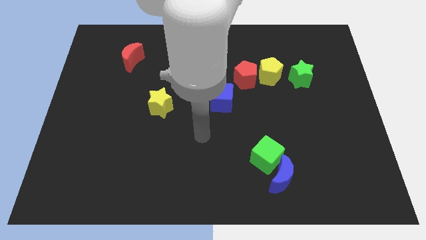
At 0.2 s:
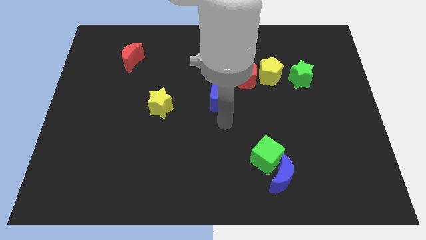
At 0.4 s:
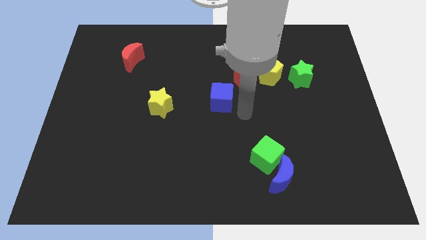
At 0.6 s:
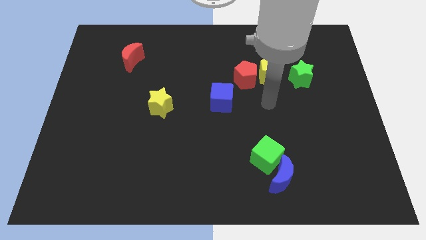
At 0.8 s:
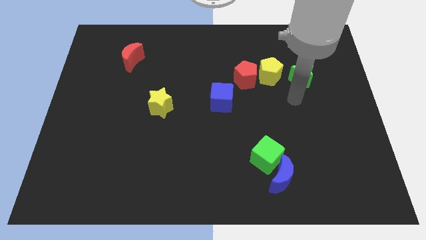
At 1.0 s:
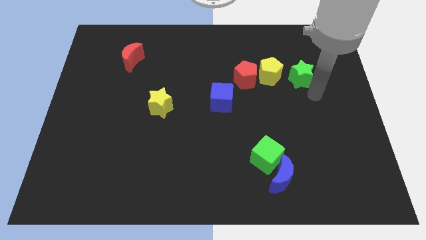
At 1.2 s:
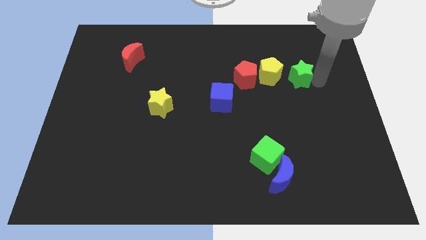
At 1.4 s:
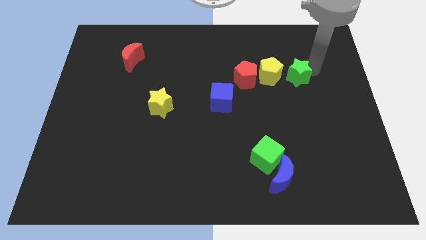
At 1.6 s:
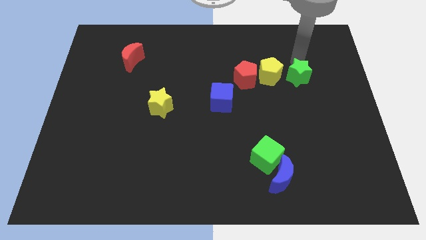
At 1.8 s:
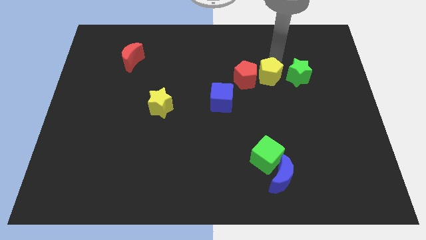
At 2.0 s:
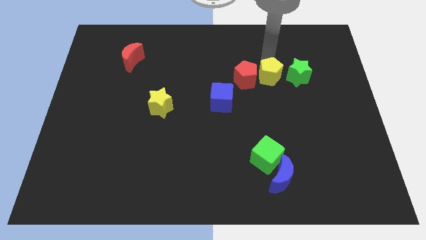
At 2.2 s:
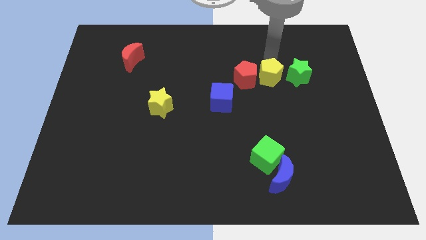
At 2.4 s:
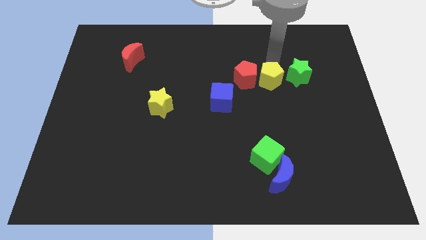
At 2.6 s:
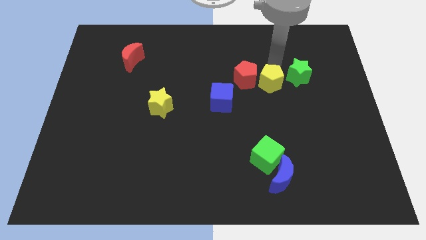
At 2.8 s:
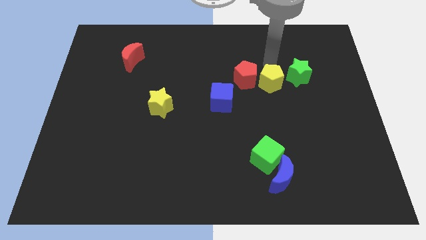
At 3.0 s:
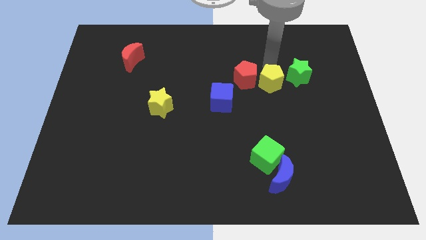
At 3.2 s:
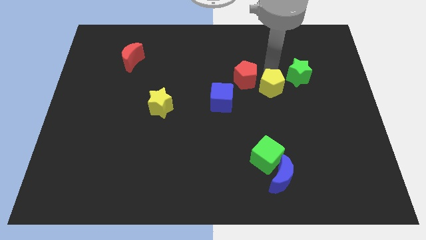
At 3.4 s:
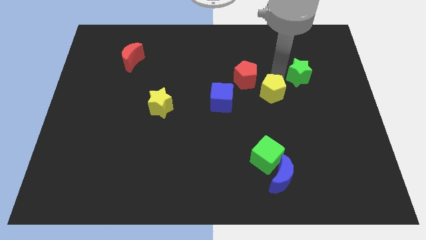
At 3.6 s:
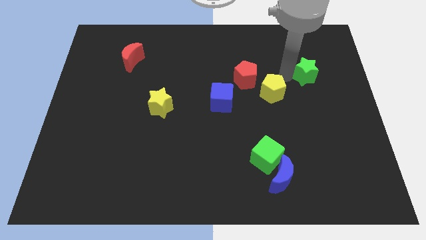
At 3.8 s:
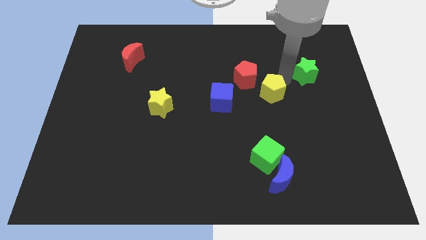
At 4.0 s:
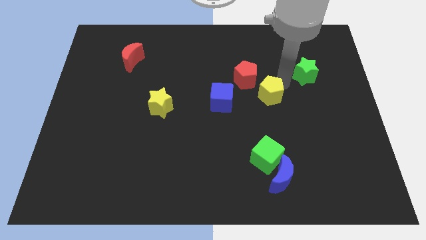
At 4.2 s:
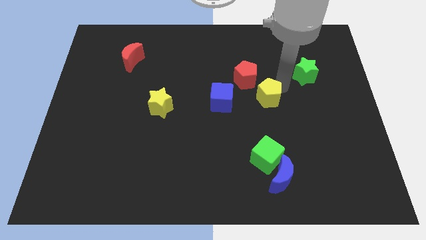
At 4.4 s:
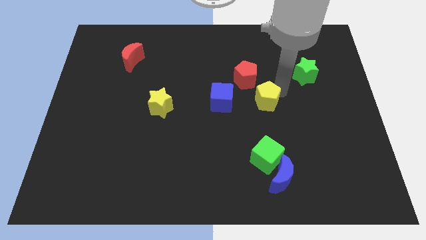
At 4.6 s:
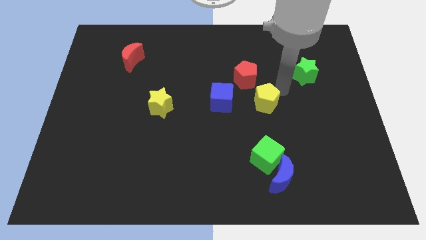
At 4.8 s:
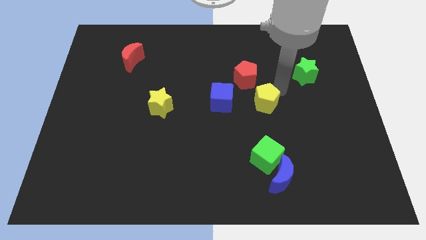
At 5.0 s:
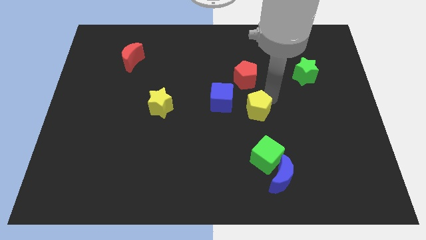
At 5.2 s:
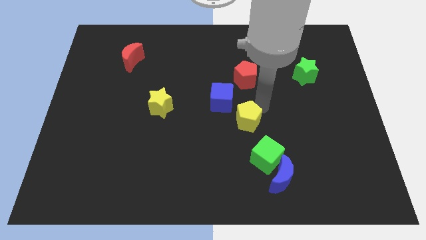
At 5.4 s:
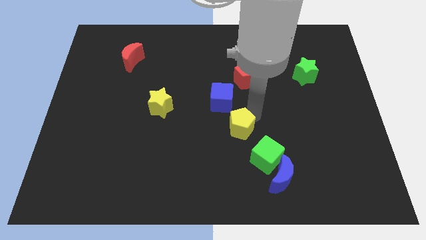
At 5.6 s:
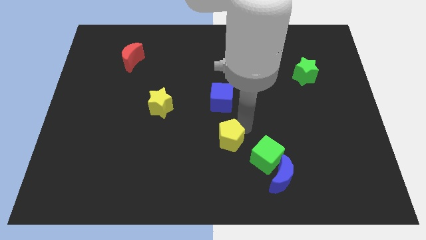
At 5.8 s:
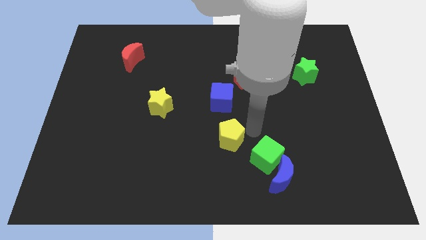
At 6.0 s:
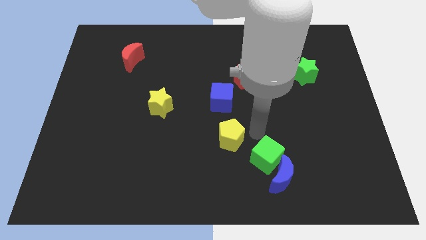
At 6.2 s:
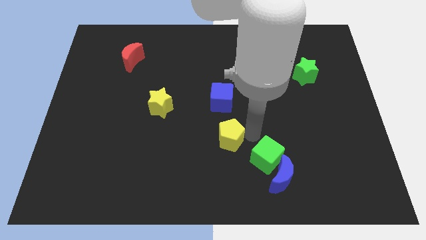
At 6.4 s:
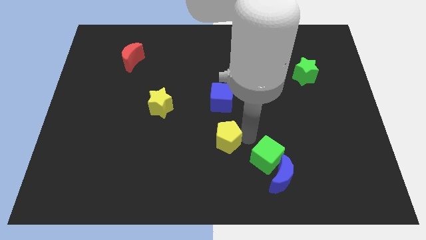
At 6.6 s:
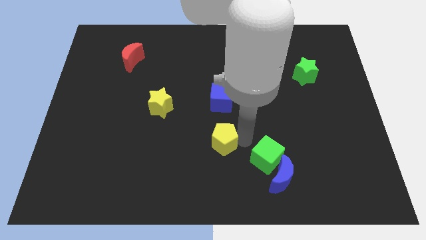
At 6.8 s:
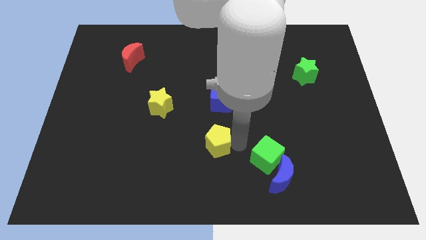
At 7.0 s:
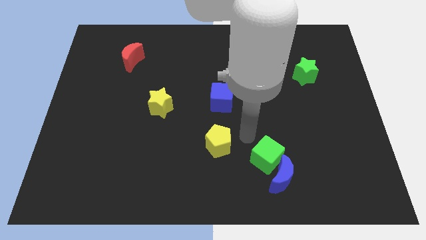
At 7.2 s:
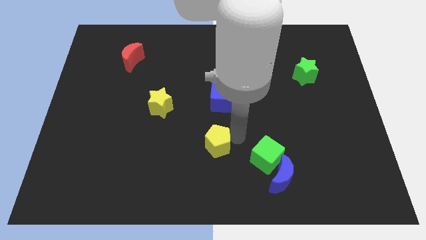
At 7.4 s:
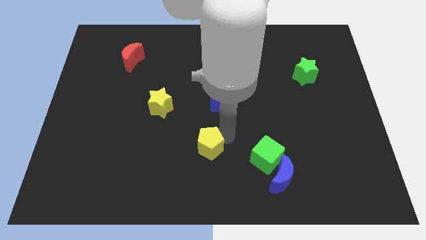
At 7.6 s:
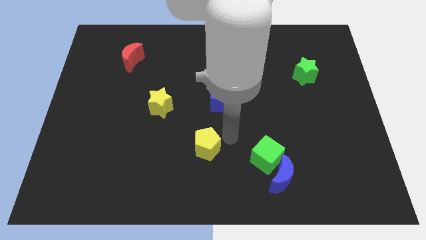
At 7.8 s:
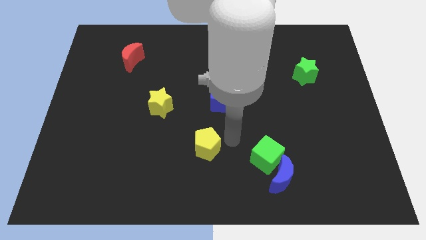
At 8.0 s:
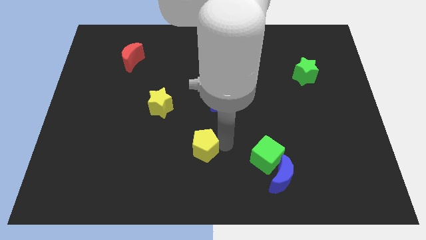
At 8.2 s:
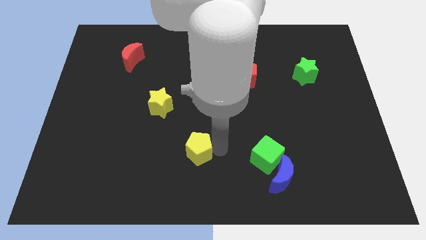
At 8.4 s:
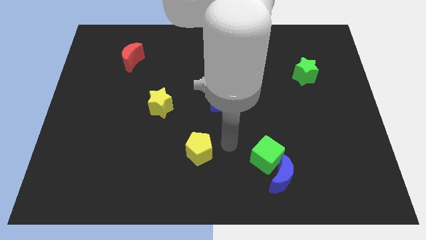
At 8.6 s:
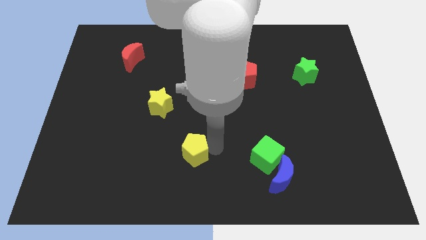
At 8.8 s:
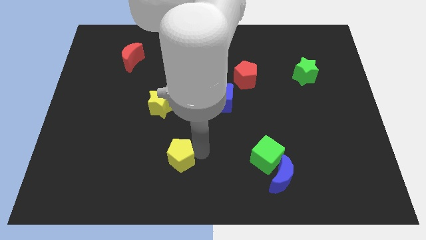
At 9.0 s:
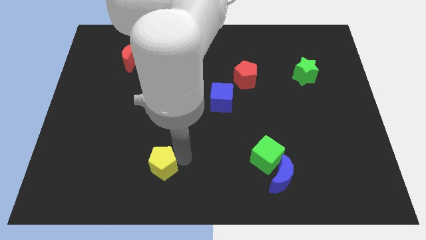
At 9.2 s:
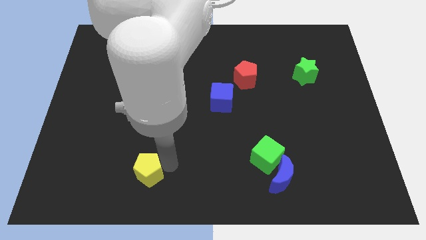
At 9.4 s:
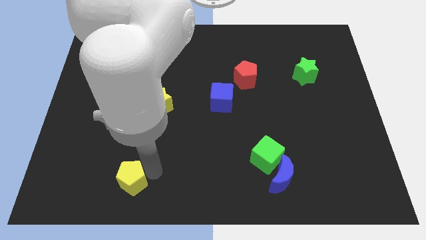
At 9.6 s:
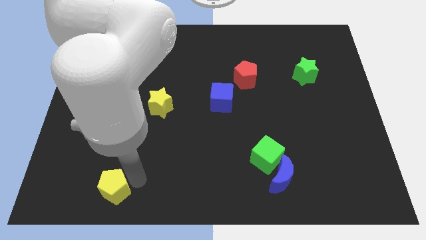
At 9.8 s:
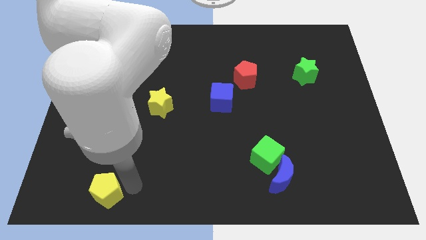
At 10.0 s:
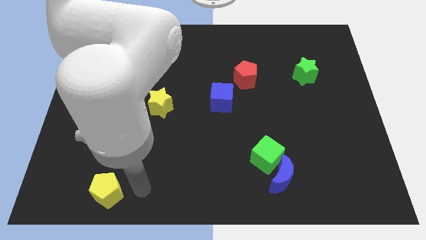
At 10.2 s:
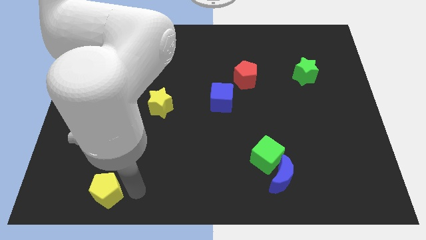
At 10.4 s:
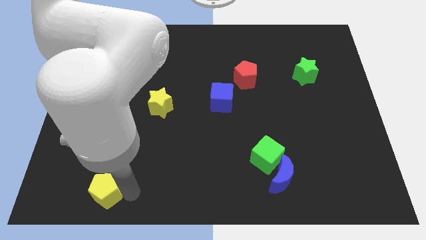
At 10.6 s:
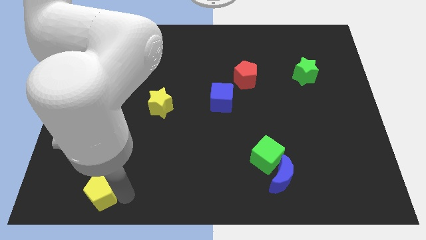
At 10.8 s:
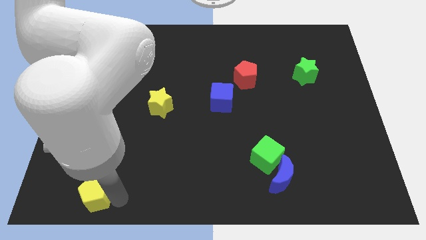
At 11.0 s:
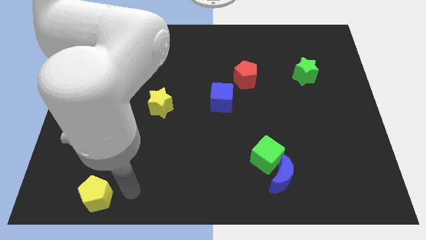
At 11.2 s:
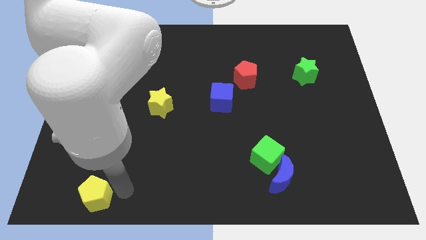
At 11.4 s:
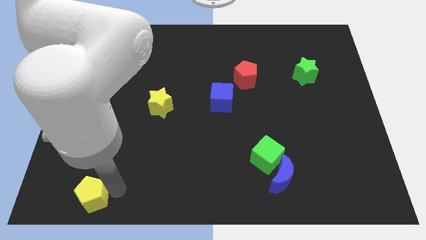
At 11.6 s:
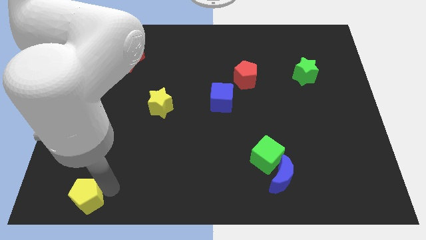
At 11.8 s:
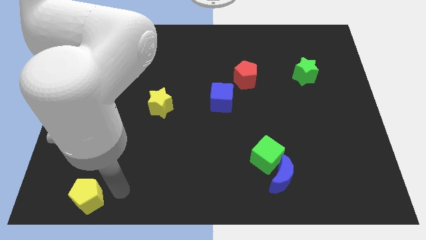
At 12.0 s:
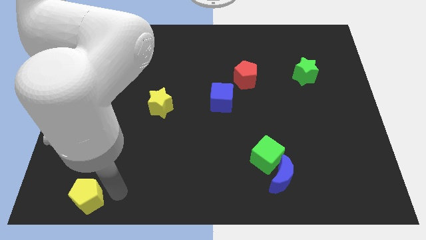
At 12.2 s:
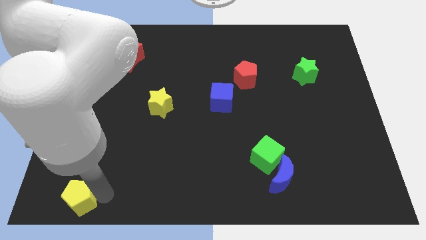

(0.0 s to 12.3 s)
slide the yellow pentagon to the bottom left of the board

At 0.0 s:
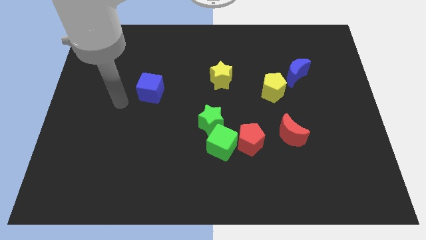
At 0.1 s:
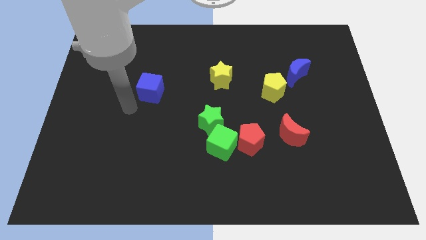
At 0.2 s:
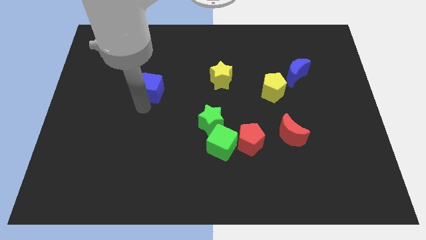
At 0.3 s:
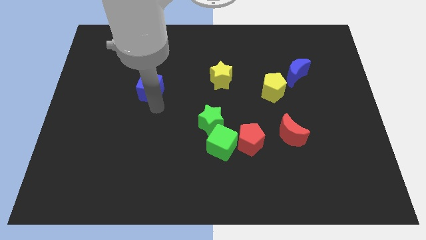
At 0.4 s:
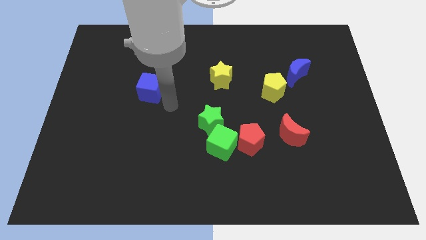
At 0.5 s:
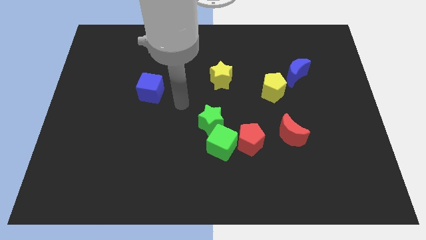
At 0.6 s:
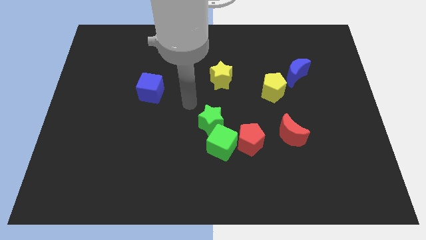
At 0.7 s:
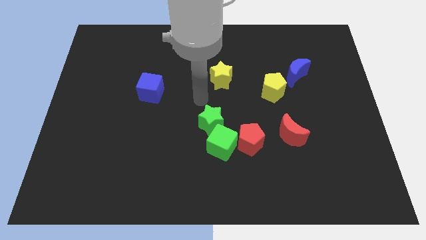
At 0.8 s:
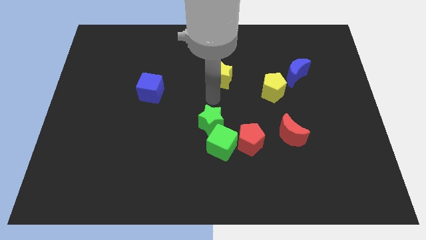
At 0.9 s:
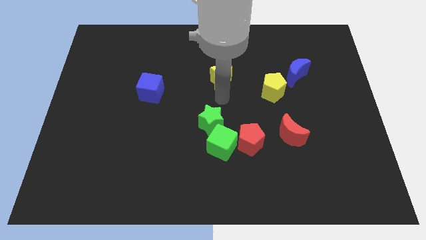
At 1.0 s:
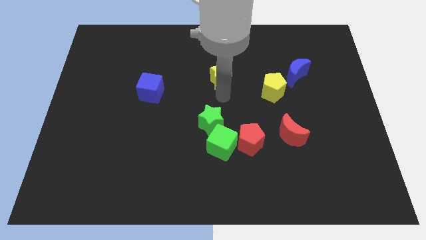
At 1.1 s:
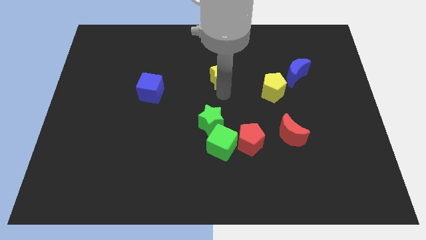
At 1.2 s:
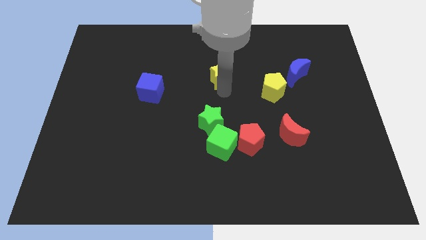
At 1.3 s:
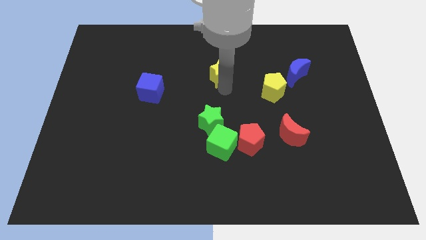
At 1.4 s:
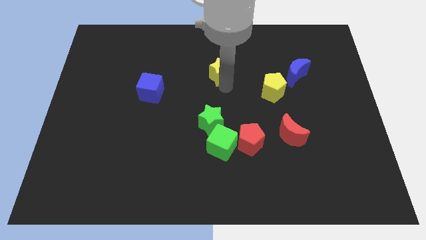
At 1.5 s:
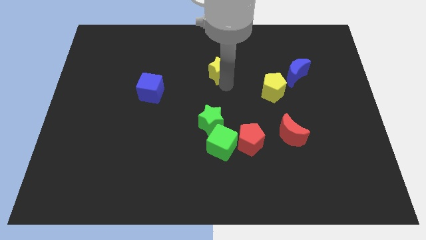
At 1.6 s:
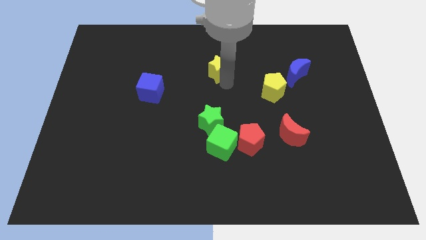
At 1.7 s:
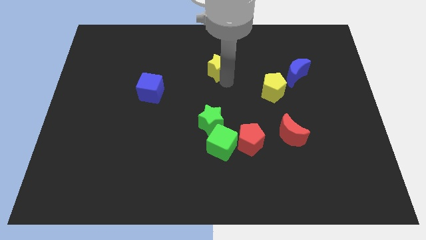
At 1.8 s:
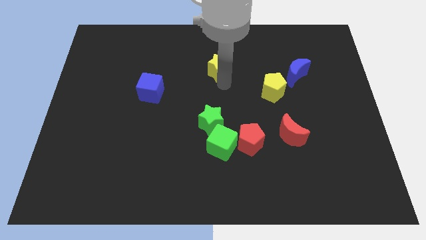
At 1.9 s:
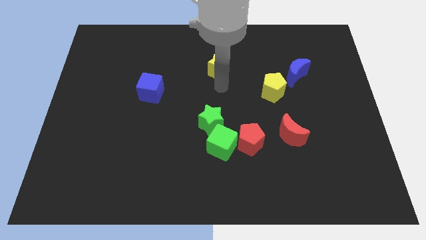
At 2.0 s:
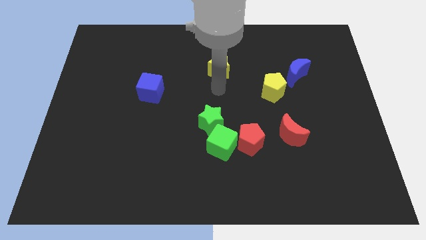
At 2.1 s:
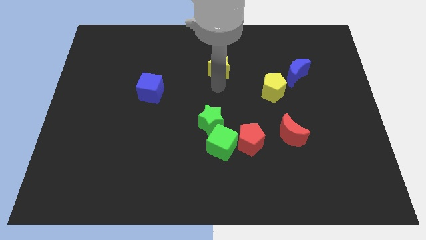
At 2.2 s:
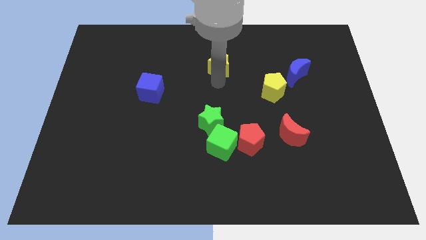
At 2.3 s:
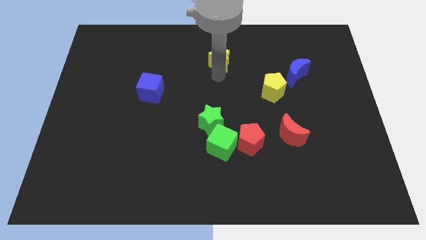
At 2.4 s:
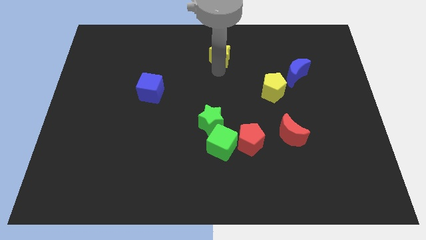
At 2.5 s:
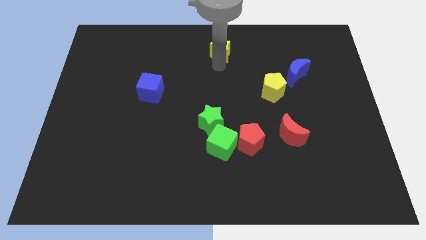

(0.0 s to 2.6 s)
slide the yellow star to the top
